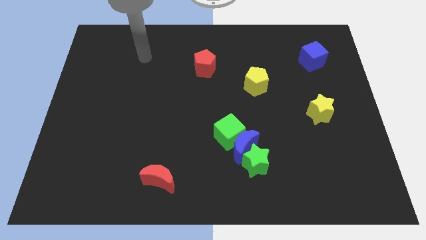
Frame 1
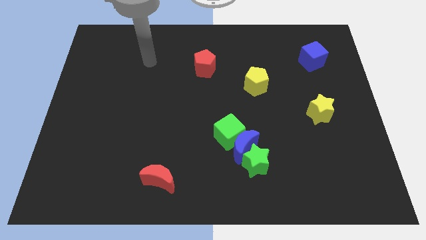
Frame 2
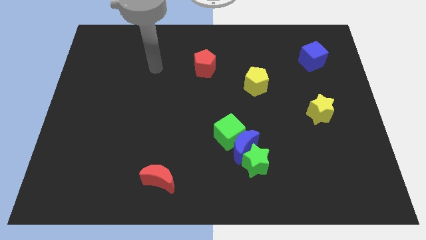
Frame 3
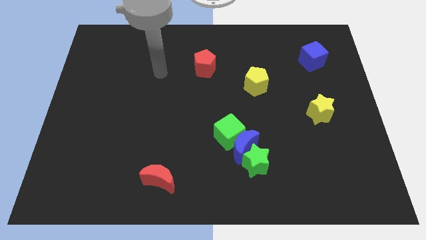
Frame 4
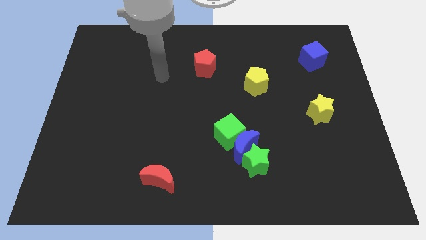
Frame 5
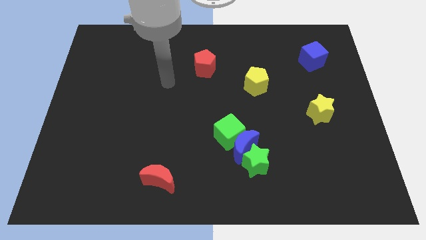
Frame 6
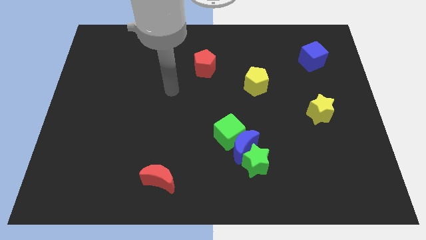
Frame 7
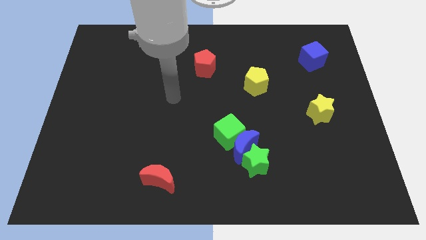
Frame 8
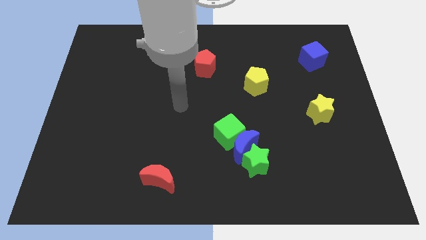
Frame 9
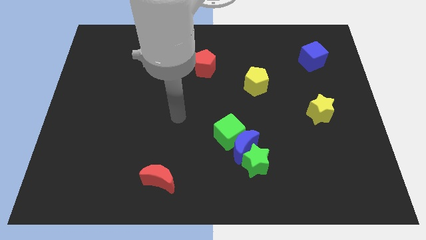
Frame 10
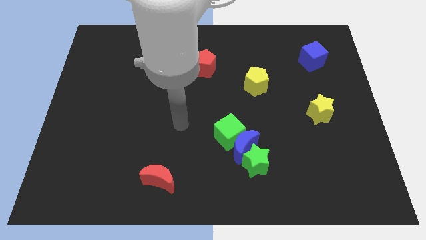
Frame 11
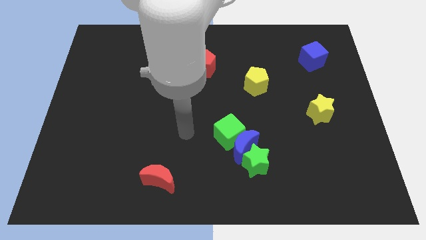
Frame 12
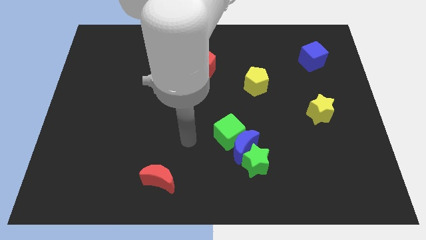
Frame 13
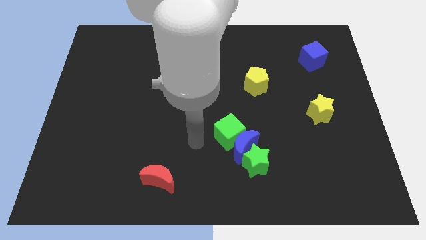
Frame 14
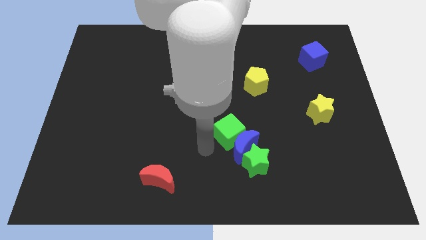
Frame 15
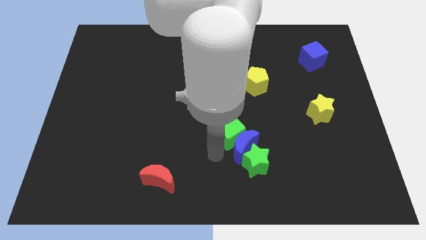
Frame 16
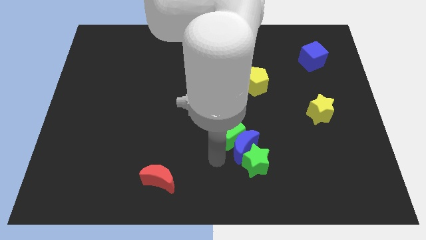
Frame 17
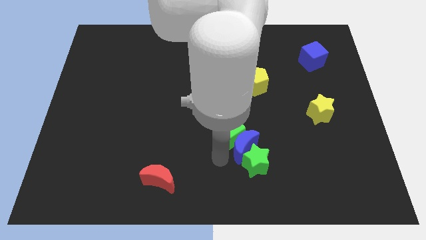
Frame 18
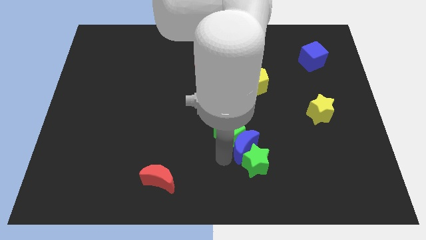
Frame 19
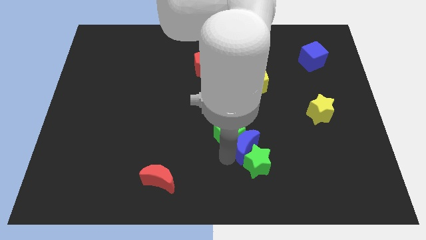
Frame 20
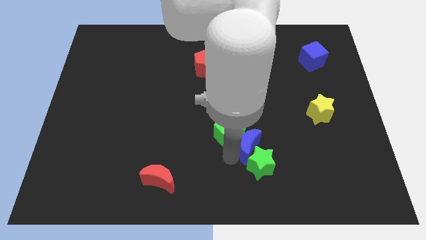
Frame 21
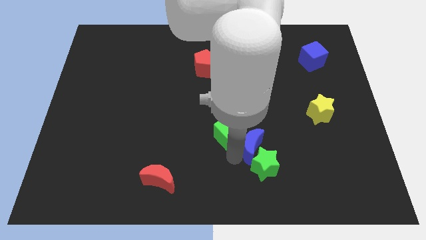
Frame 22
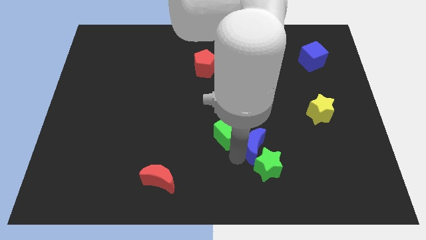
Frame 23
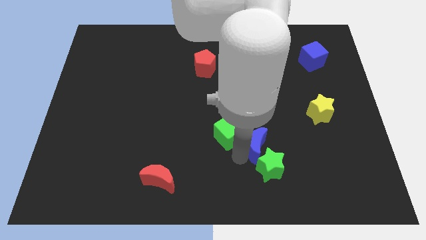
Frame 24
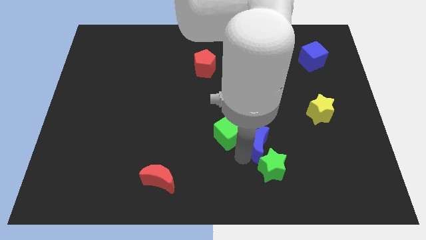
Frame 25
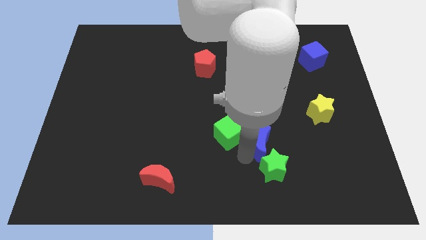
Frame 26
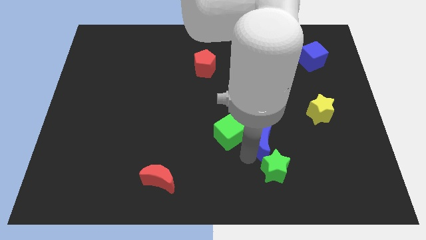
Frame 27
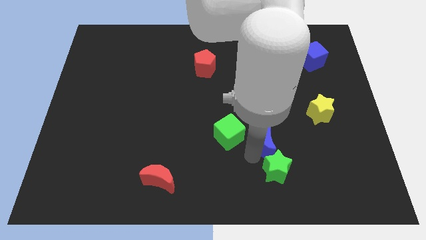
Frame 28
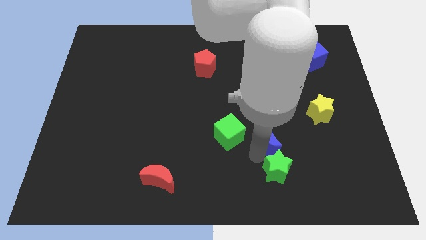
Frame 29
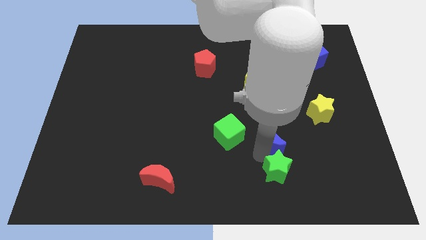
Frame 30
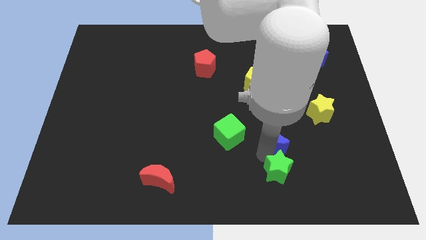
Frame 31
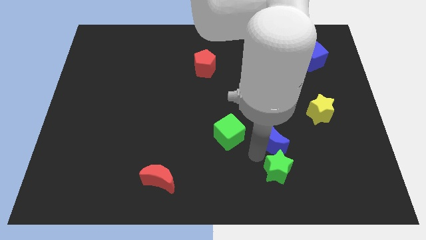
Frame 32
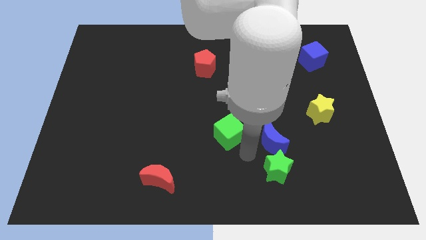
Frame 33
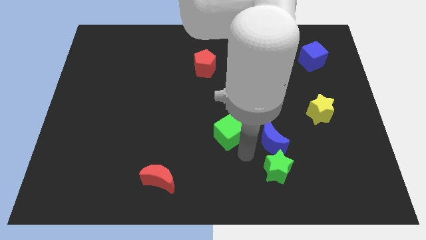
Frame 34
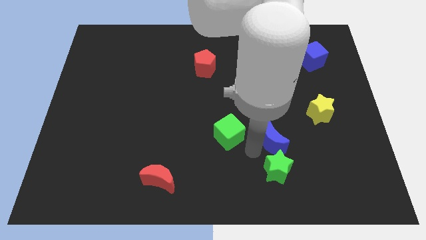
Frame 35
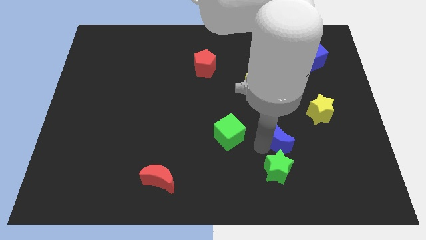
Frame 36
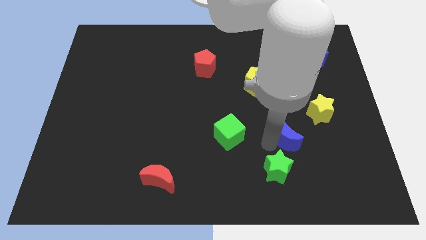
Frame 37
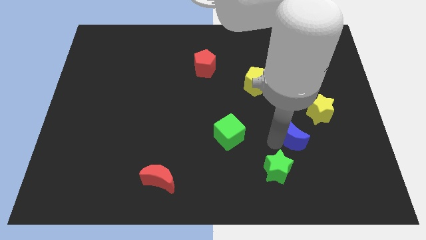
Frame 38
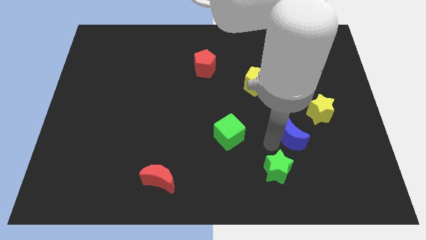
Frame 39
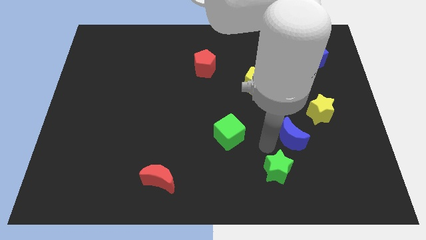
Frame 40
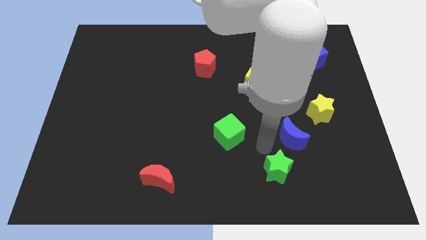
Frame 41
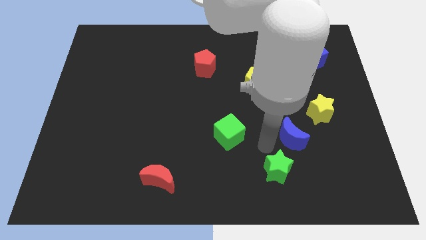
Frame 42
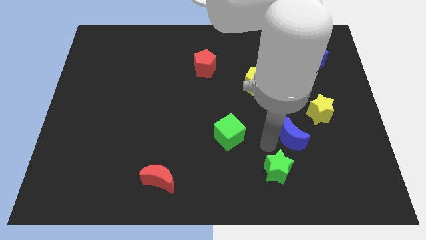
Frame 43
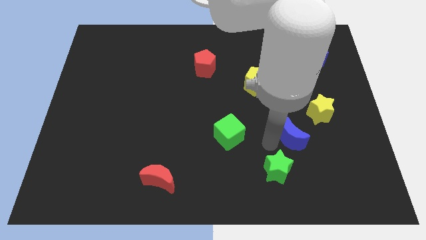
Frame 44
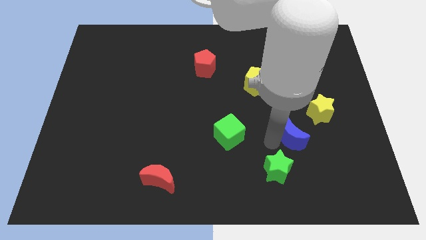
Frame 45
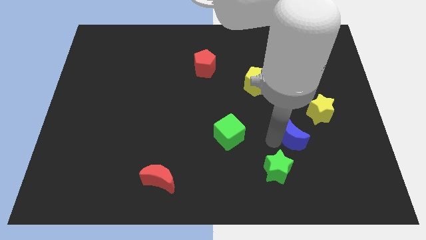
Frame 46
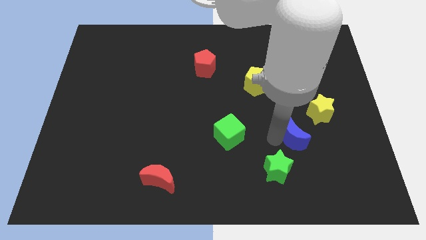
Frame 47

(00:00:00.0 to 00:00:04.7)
separate the blue moon from the green star and green cube

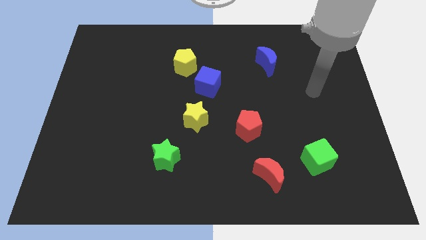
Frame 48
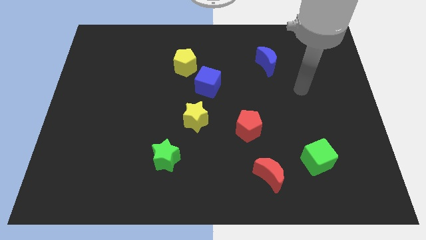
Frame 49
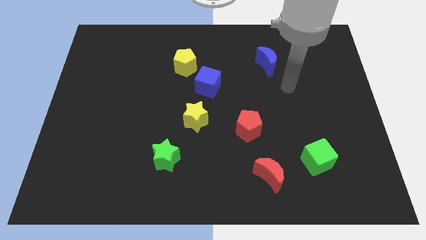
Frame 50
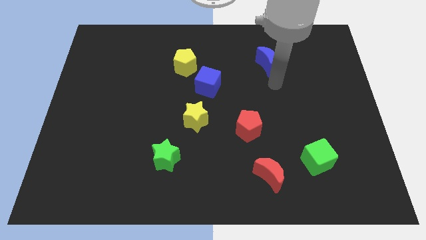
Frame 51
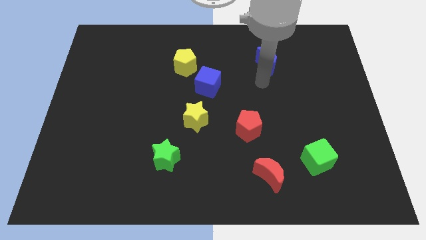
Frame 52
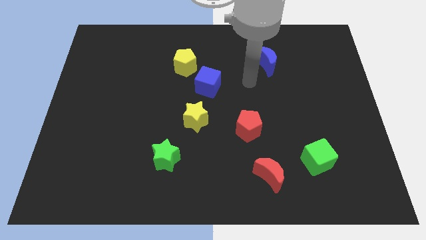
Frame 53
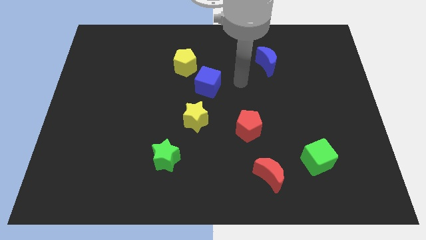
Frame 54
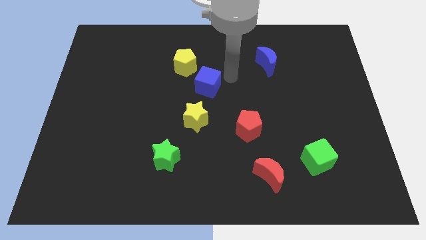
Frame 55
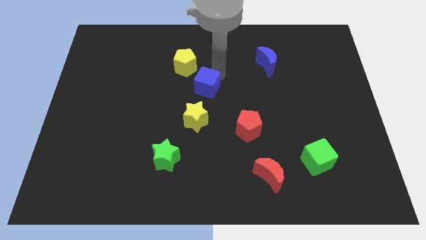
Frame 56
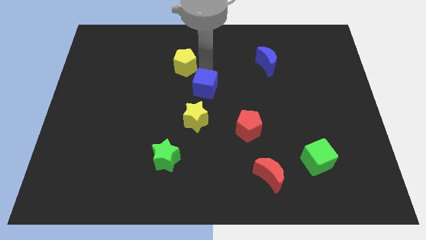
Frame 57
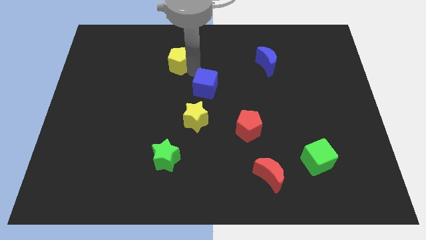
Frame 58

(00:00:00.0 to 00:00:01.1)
separate the blue cube from the yellow pentagon

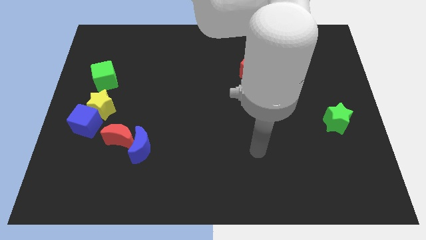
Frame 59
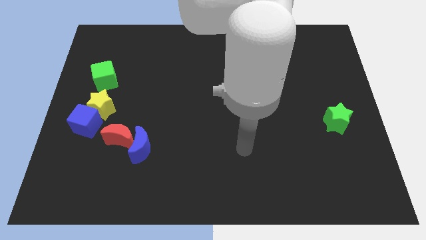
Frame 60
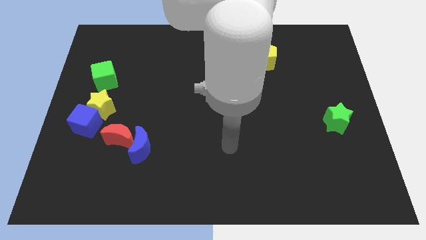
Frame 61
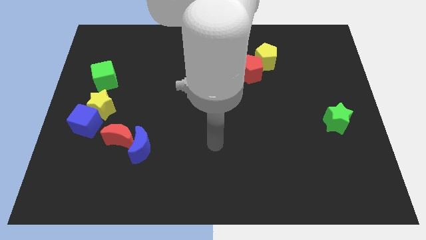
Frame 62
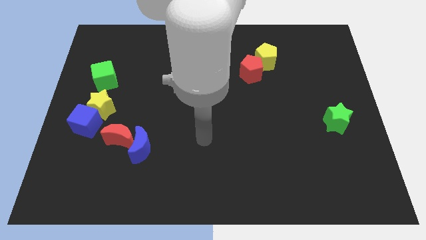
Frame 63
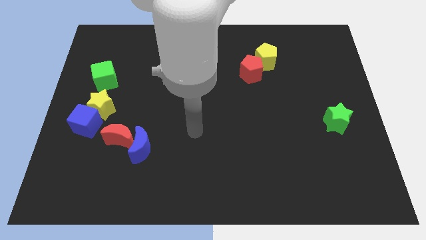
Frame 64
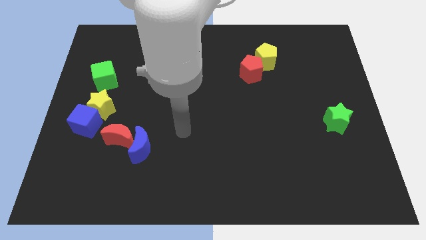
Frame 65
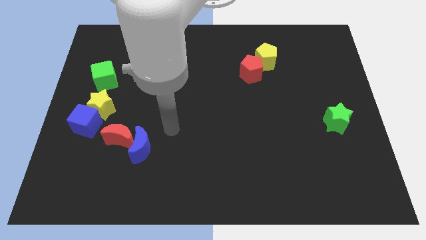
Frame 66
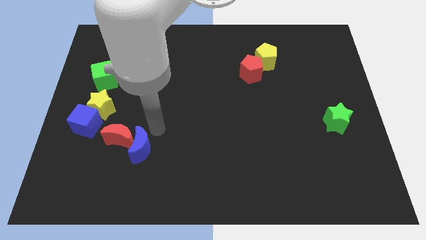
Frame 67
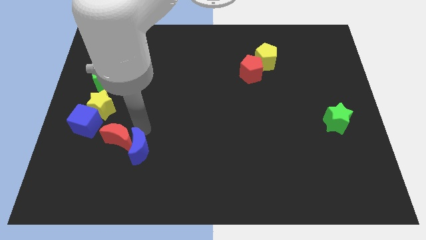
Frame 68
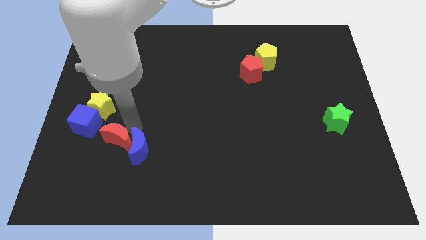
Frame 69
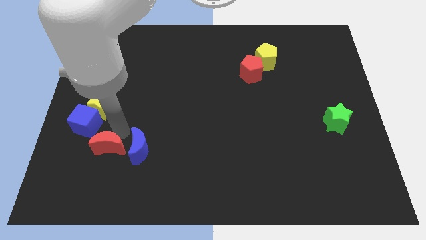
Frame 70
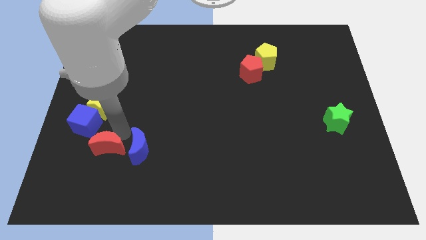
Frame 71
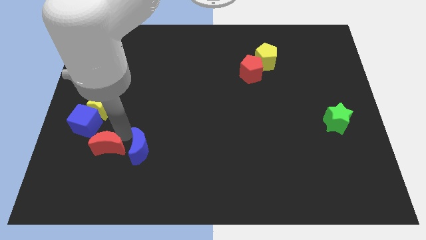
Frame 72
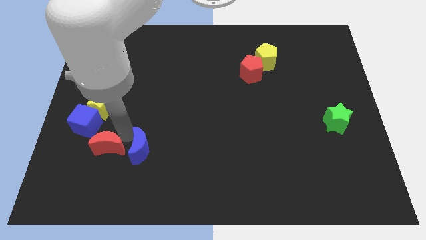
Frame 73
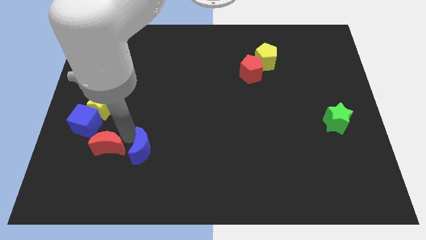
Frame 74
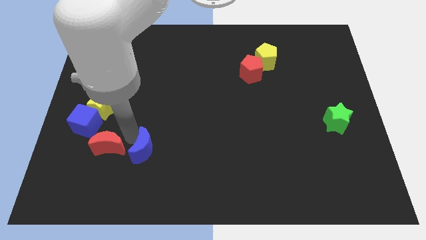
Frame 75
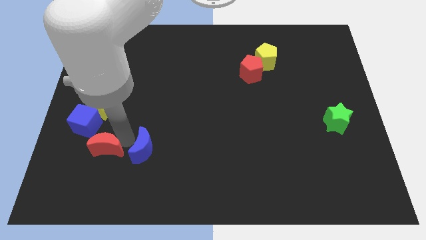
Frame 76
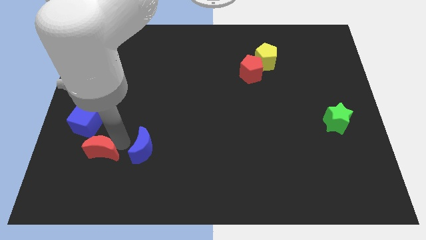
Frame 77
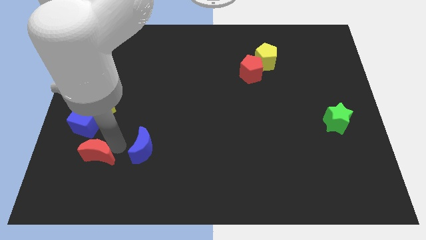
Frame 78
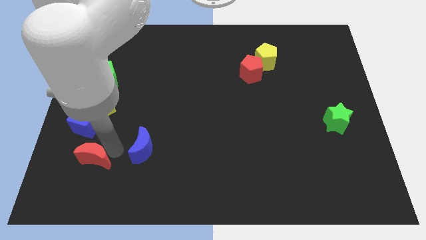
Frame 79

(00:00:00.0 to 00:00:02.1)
move the blue moon away from the red moon

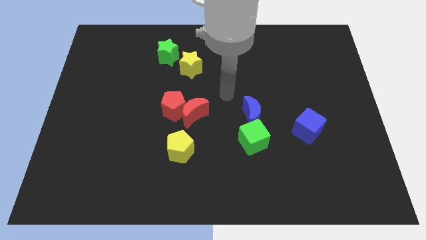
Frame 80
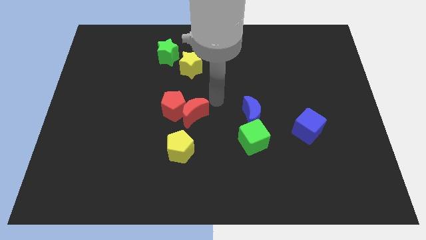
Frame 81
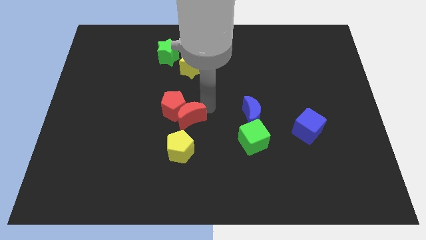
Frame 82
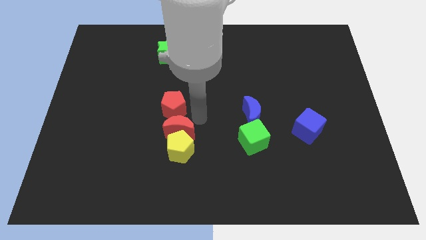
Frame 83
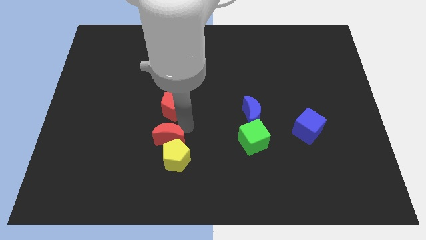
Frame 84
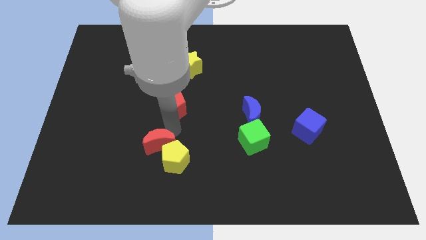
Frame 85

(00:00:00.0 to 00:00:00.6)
separate the red pentagon from the red moon

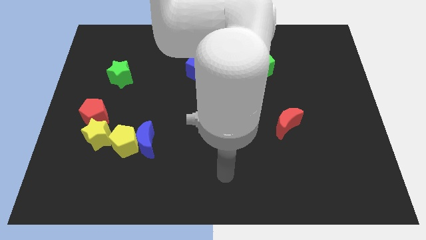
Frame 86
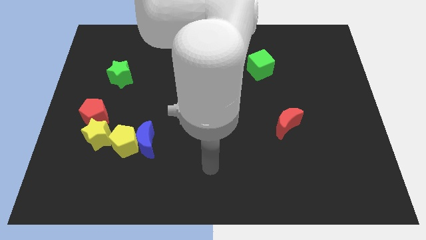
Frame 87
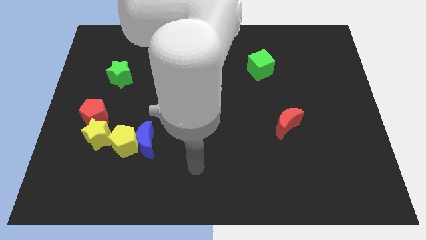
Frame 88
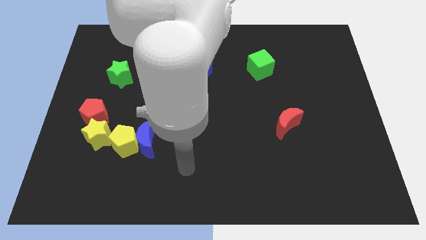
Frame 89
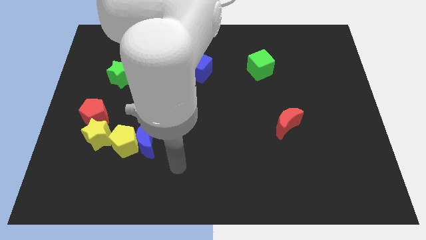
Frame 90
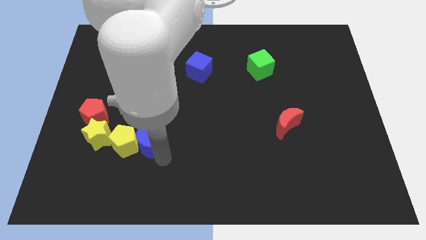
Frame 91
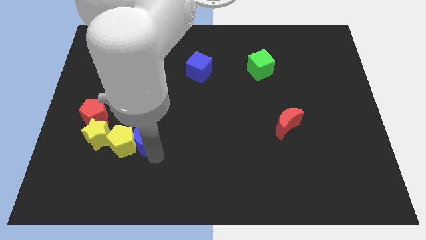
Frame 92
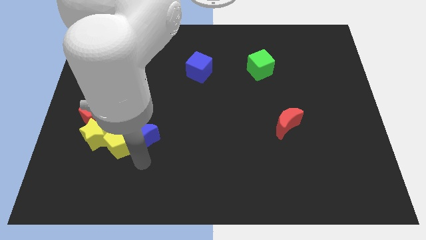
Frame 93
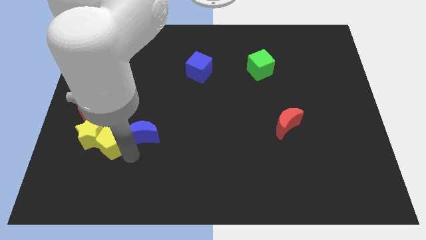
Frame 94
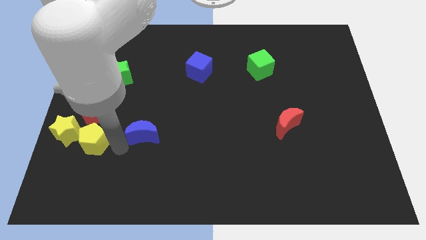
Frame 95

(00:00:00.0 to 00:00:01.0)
pull the blue moon apart from the yellow pentagon
